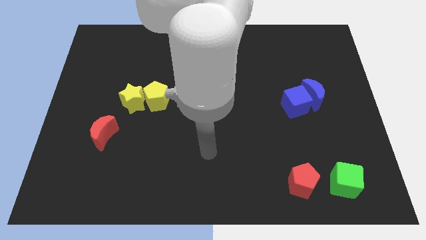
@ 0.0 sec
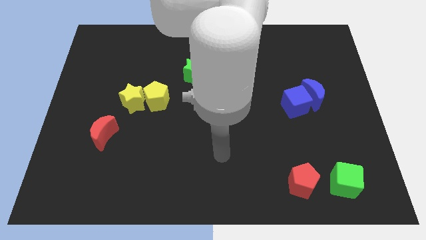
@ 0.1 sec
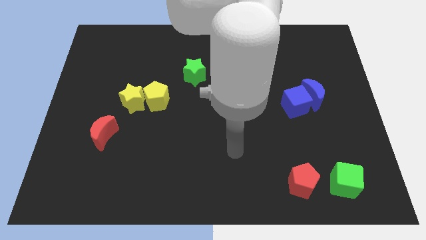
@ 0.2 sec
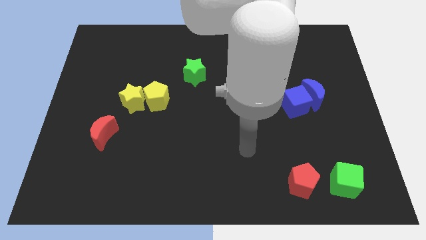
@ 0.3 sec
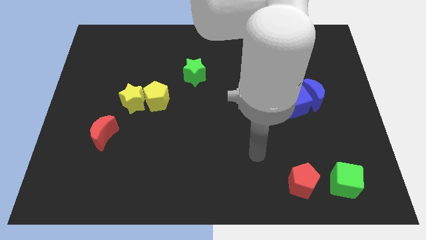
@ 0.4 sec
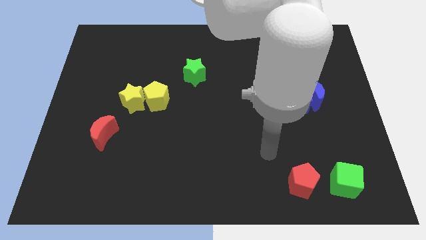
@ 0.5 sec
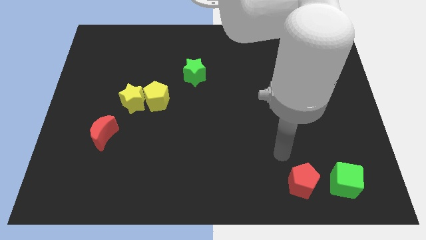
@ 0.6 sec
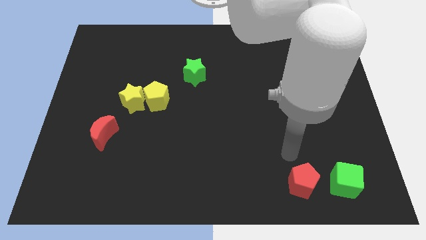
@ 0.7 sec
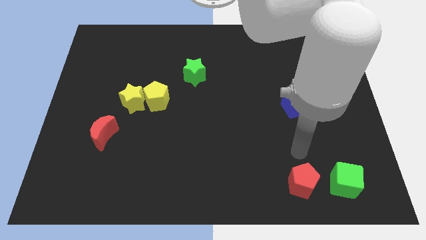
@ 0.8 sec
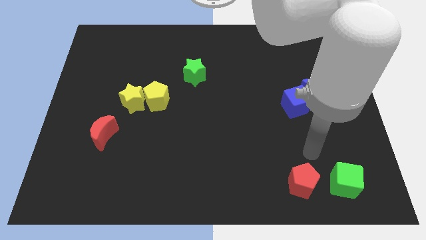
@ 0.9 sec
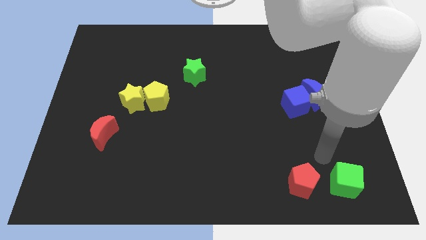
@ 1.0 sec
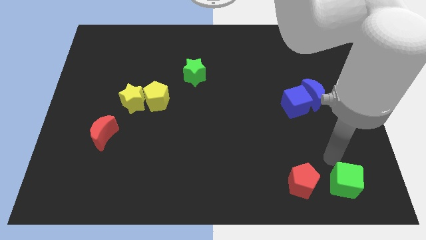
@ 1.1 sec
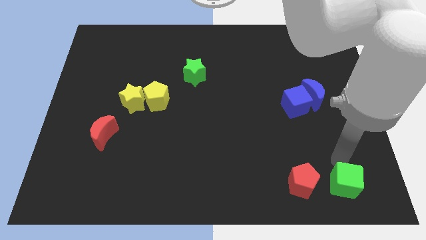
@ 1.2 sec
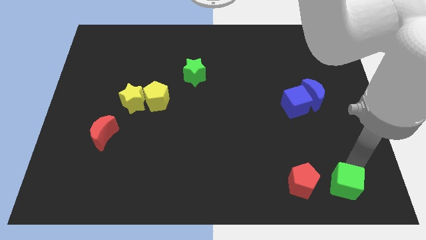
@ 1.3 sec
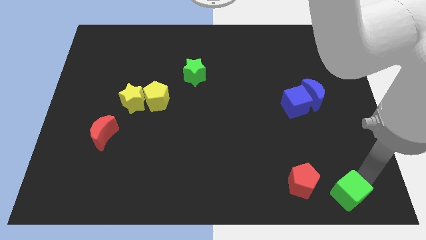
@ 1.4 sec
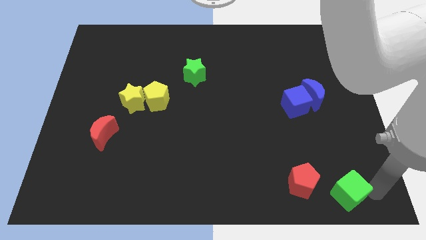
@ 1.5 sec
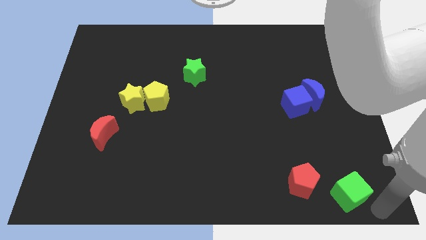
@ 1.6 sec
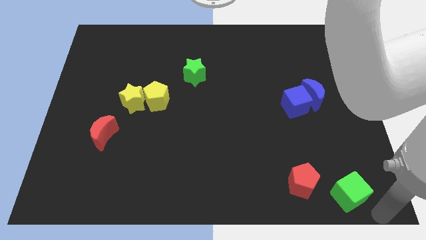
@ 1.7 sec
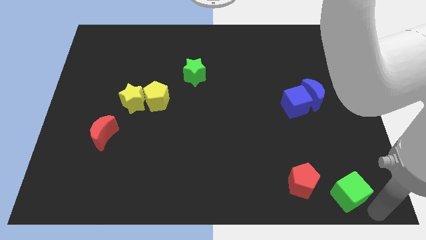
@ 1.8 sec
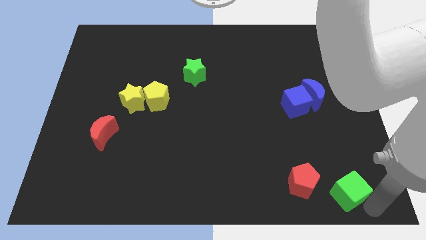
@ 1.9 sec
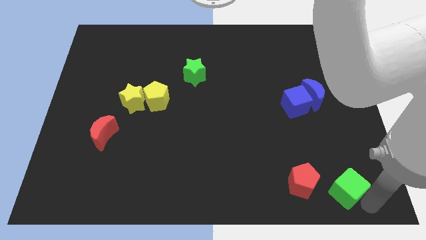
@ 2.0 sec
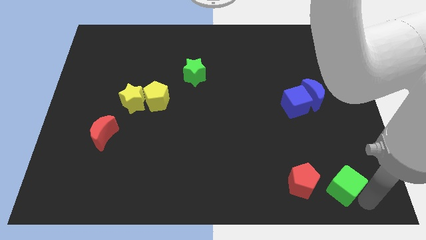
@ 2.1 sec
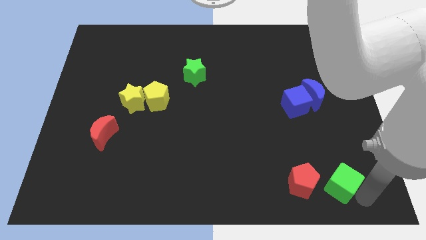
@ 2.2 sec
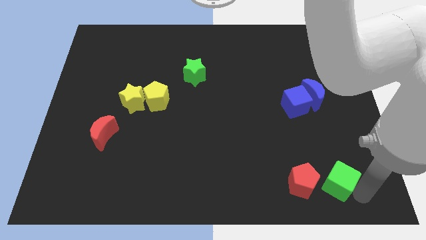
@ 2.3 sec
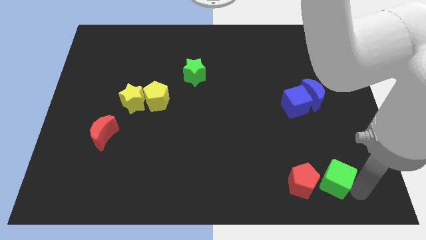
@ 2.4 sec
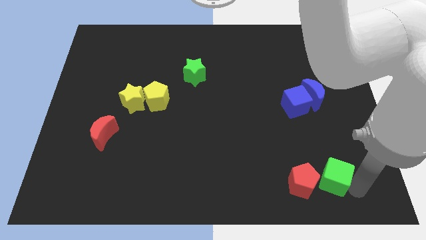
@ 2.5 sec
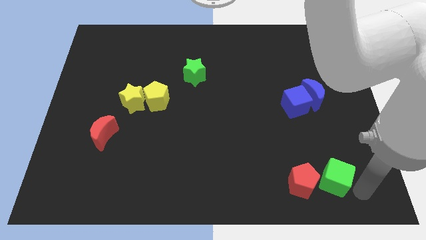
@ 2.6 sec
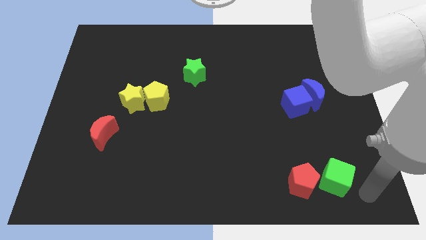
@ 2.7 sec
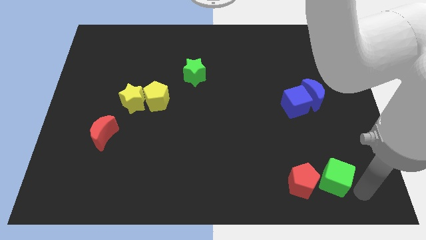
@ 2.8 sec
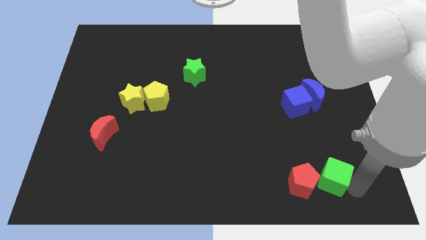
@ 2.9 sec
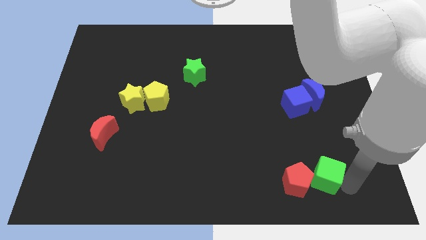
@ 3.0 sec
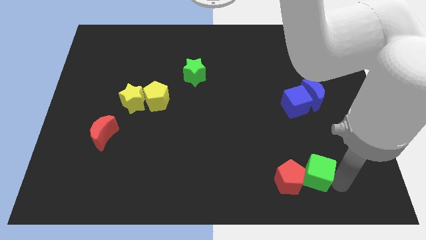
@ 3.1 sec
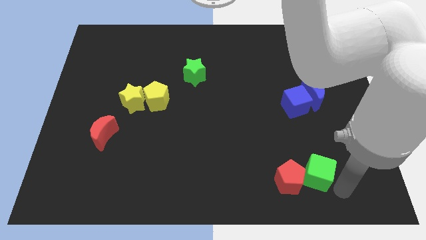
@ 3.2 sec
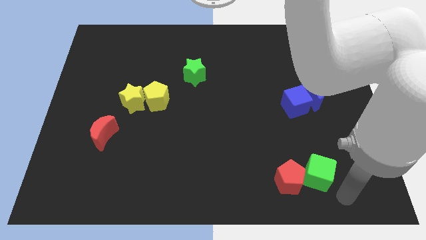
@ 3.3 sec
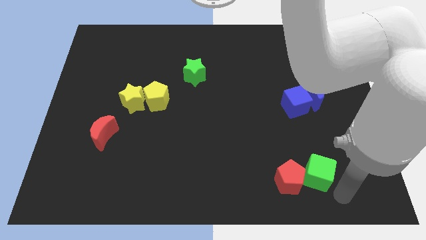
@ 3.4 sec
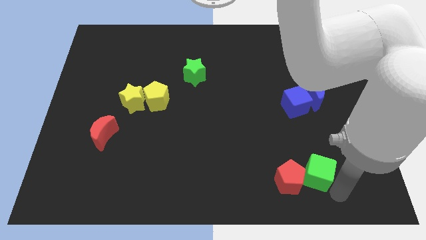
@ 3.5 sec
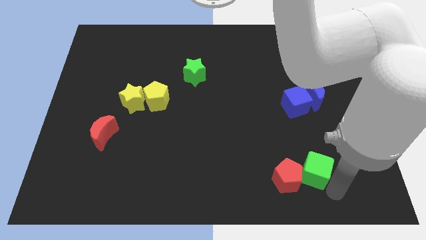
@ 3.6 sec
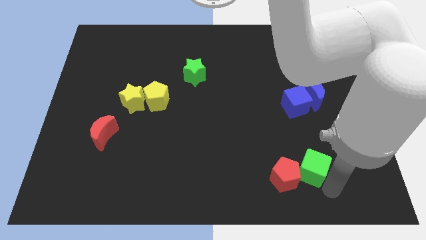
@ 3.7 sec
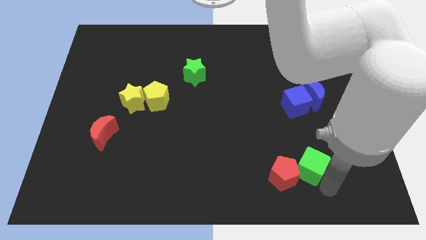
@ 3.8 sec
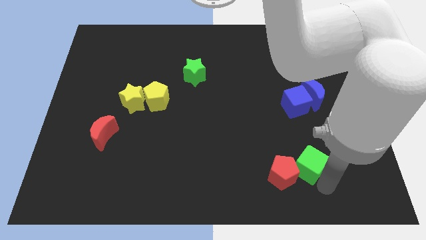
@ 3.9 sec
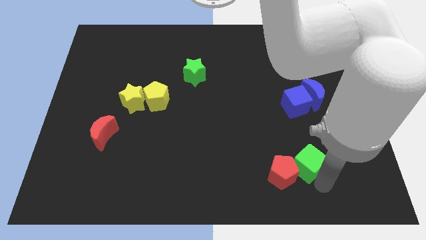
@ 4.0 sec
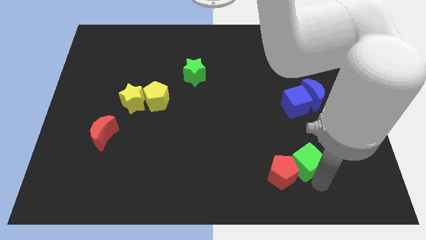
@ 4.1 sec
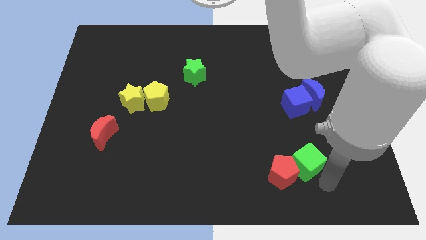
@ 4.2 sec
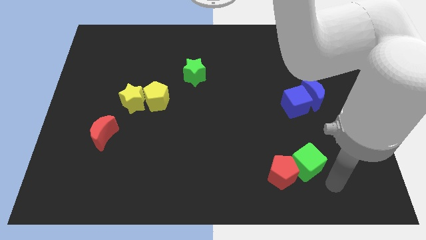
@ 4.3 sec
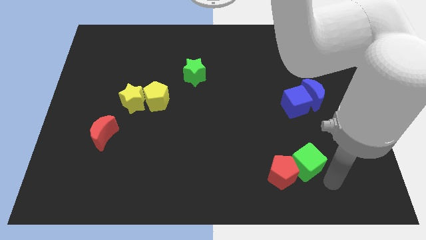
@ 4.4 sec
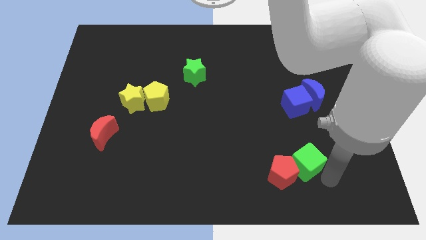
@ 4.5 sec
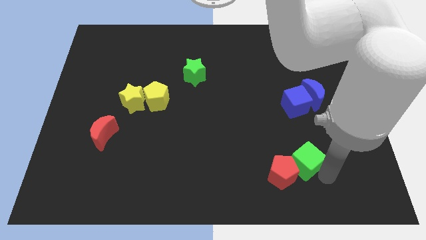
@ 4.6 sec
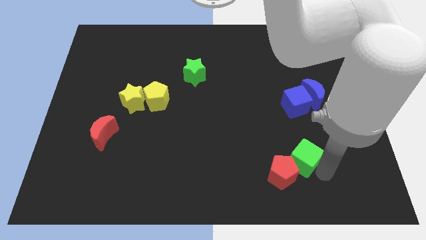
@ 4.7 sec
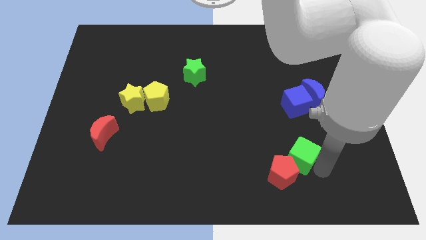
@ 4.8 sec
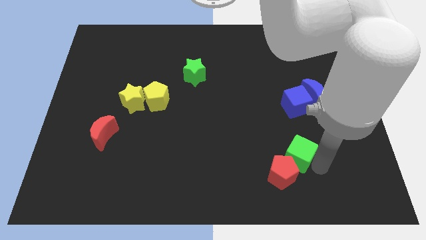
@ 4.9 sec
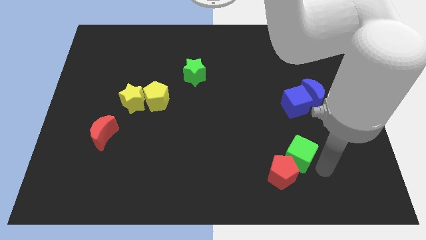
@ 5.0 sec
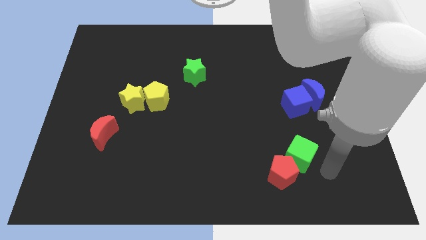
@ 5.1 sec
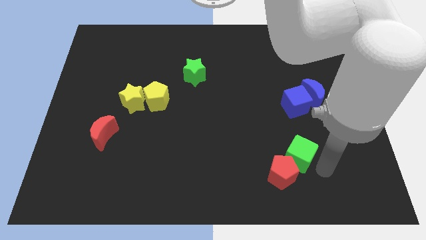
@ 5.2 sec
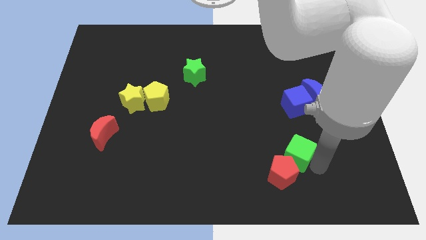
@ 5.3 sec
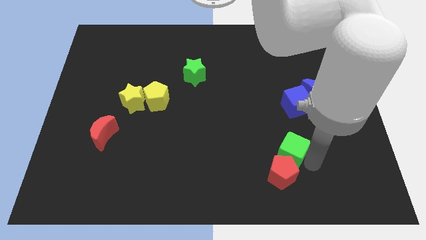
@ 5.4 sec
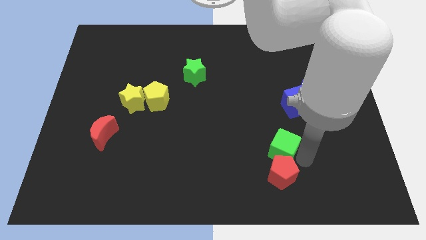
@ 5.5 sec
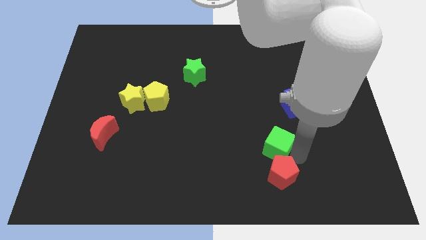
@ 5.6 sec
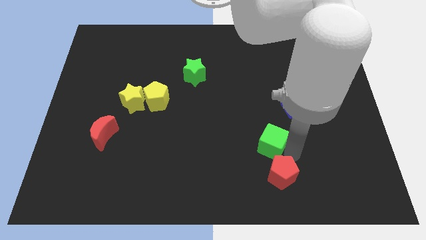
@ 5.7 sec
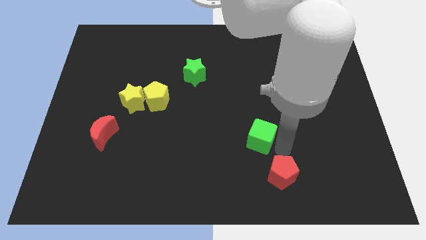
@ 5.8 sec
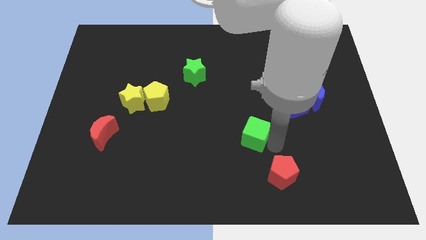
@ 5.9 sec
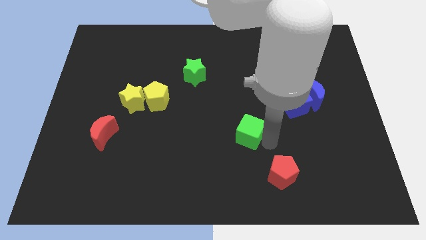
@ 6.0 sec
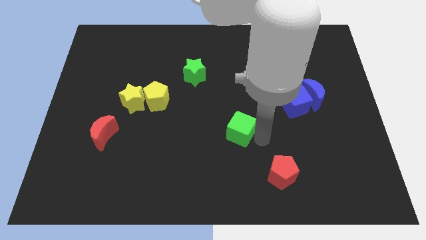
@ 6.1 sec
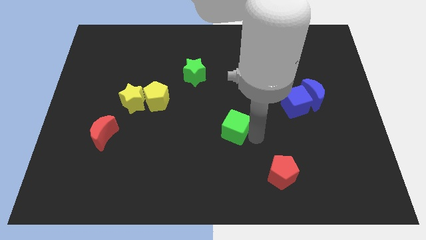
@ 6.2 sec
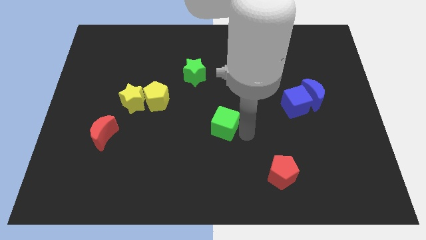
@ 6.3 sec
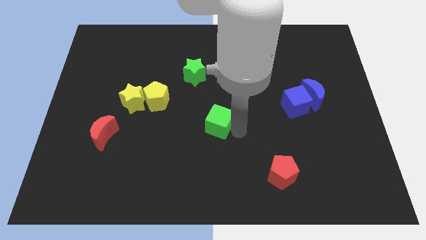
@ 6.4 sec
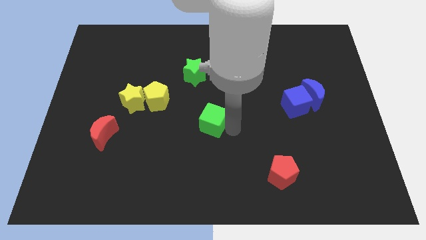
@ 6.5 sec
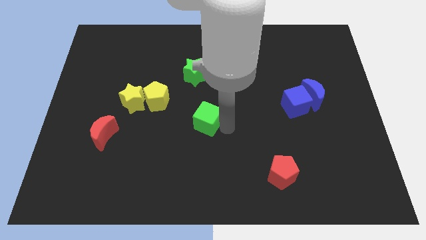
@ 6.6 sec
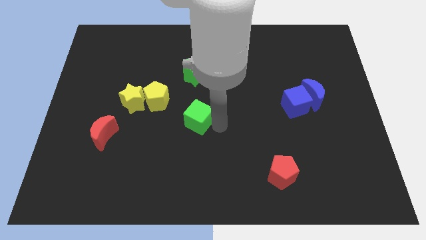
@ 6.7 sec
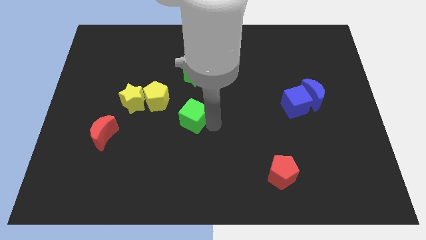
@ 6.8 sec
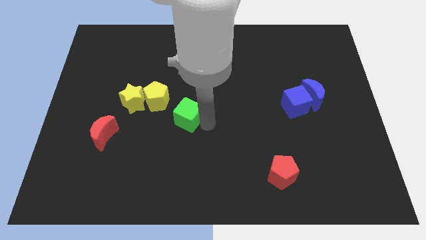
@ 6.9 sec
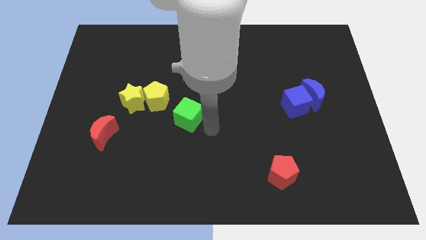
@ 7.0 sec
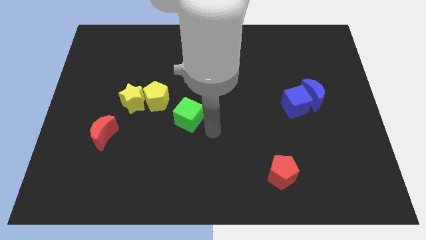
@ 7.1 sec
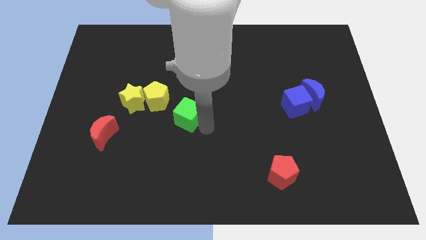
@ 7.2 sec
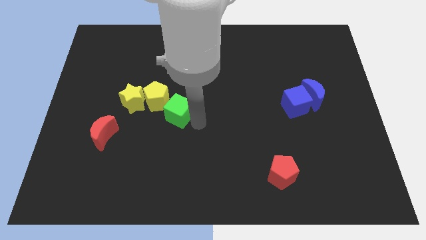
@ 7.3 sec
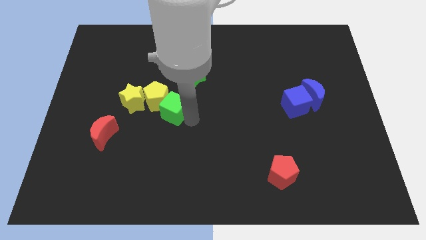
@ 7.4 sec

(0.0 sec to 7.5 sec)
move the green cube close to the yellow pentagon
